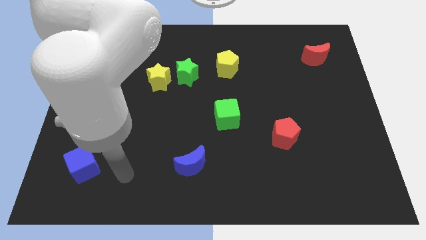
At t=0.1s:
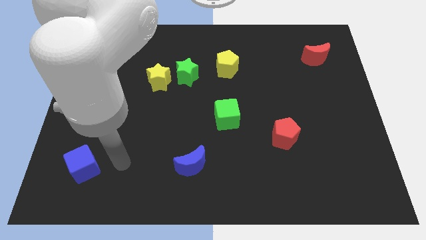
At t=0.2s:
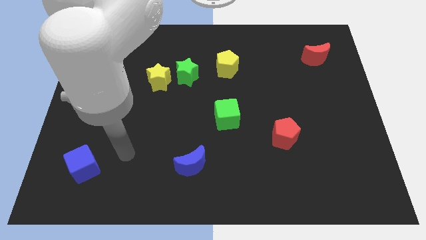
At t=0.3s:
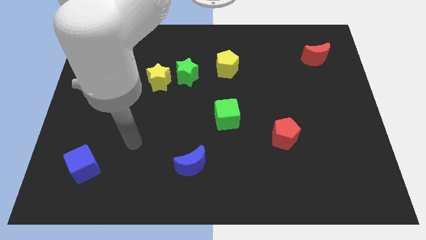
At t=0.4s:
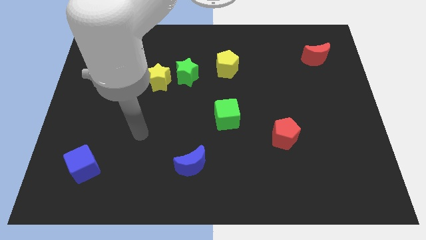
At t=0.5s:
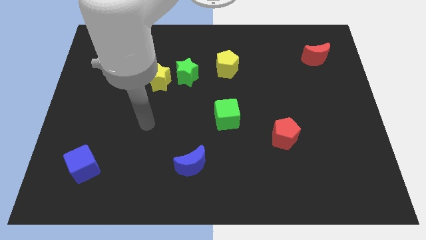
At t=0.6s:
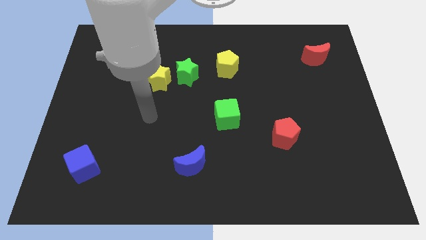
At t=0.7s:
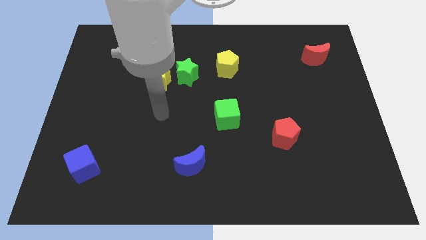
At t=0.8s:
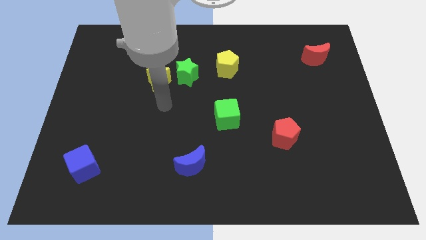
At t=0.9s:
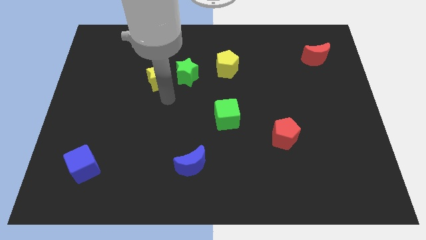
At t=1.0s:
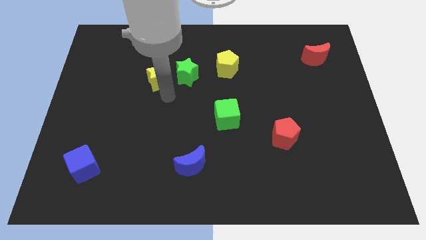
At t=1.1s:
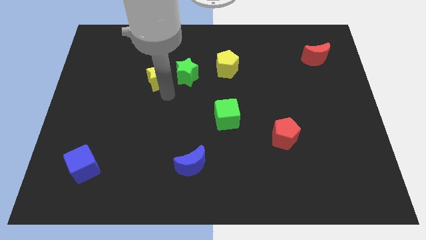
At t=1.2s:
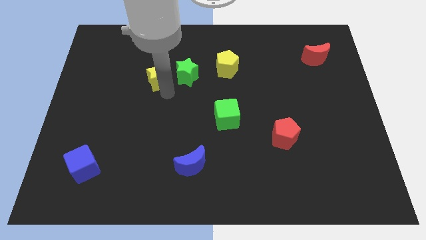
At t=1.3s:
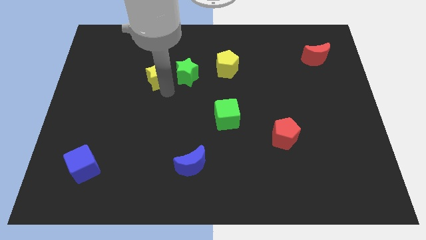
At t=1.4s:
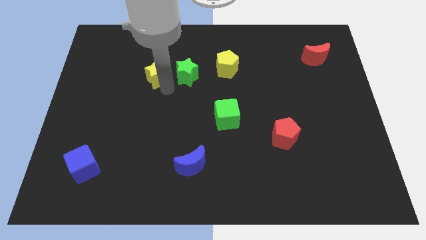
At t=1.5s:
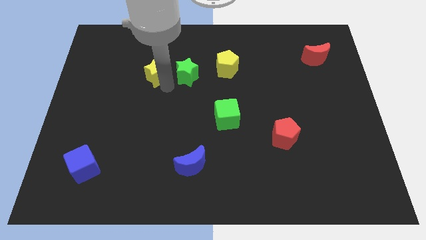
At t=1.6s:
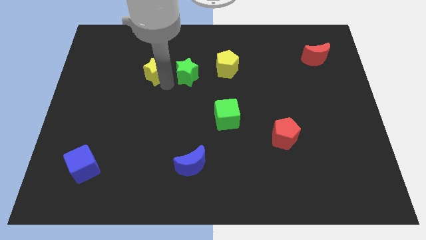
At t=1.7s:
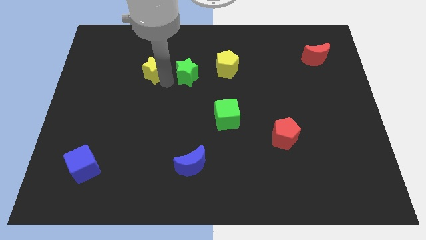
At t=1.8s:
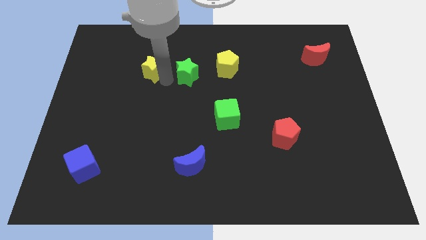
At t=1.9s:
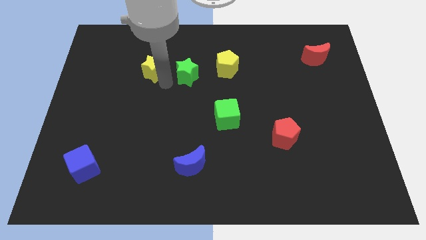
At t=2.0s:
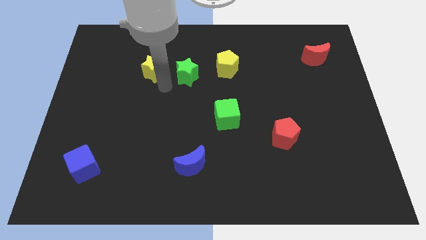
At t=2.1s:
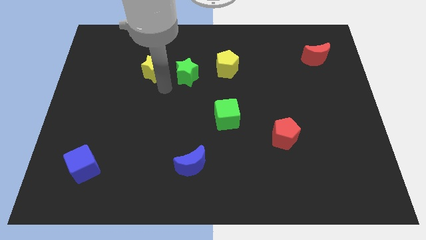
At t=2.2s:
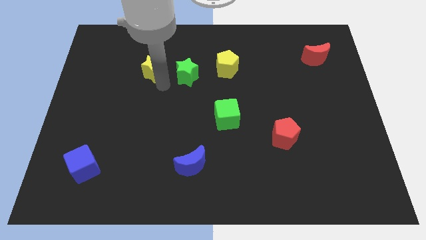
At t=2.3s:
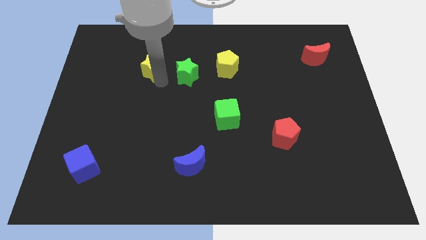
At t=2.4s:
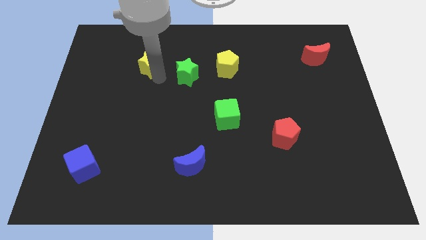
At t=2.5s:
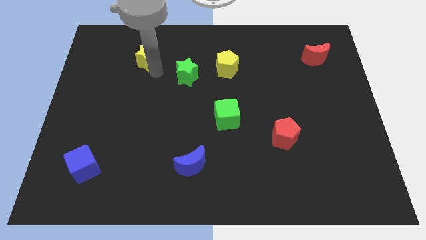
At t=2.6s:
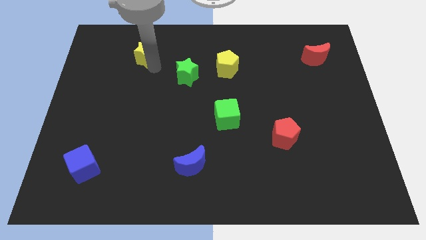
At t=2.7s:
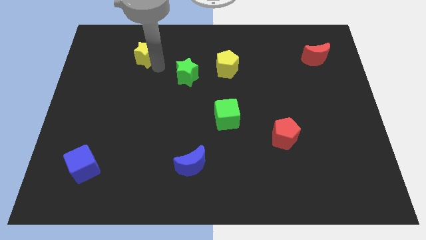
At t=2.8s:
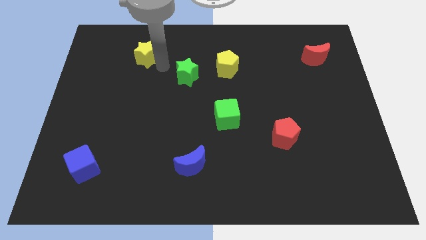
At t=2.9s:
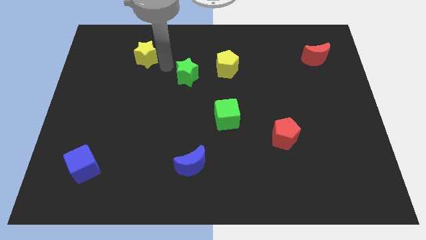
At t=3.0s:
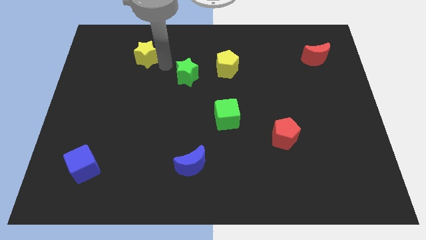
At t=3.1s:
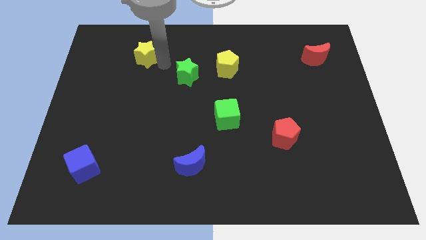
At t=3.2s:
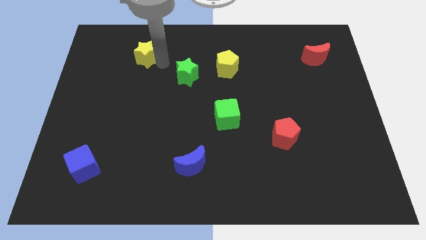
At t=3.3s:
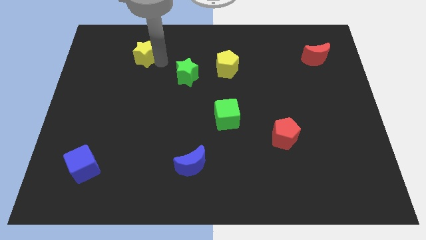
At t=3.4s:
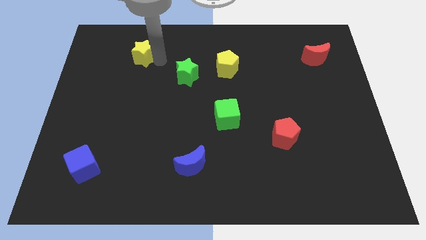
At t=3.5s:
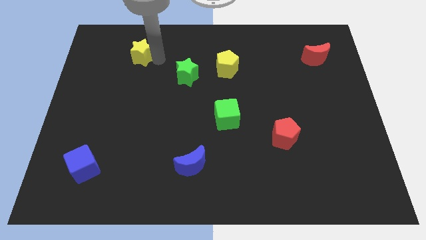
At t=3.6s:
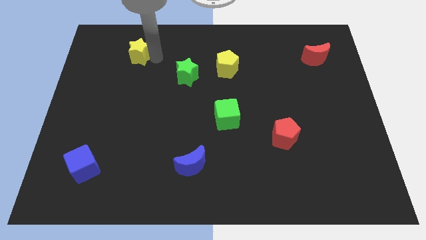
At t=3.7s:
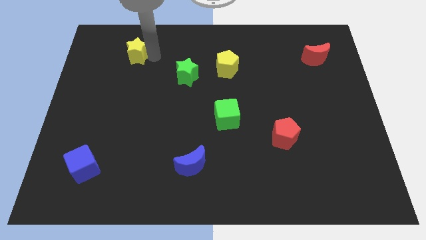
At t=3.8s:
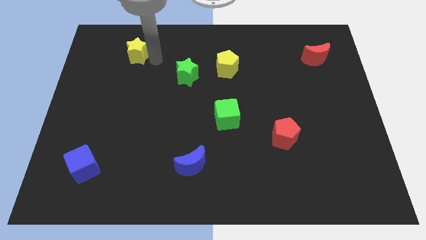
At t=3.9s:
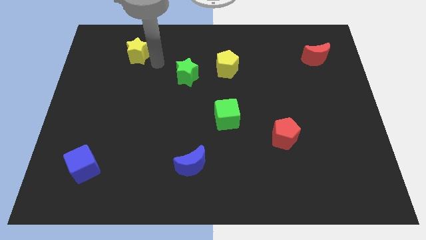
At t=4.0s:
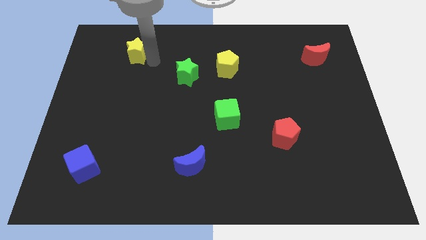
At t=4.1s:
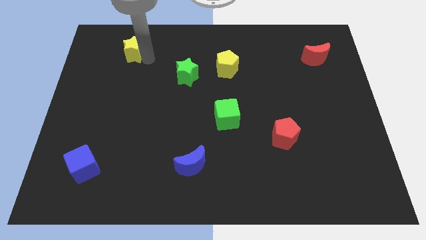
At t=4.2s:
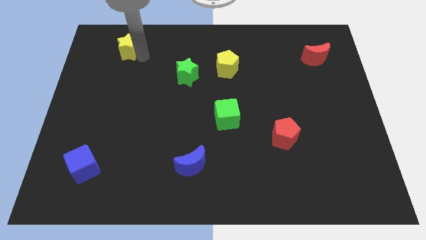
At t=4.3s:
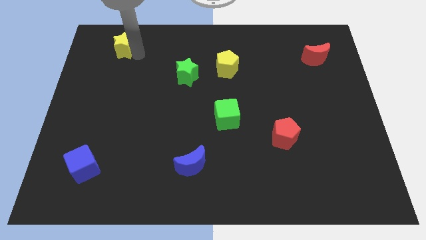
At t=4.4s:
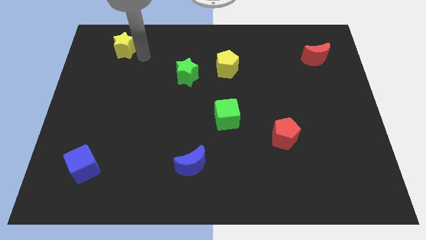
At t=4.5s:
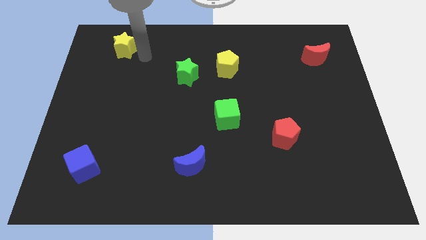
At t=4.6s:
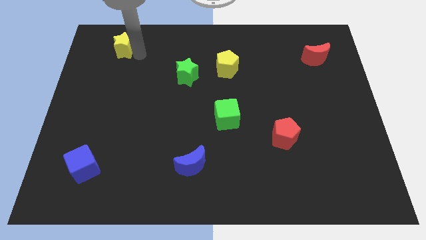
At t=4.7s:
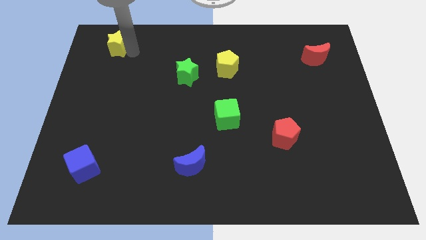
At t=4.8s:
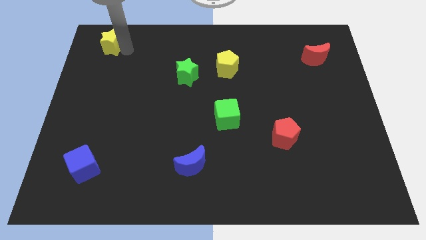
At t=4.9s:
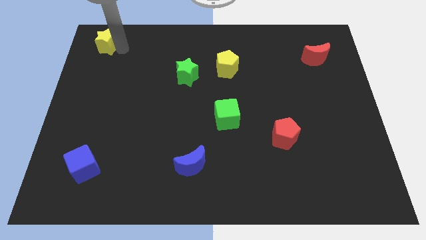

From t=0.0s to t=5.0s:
push the yellow star to the top left

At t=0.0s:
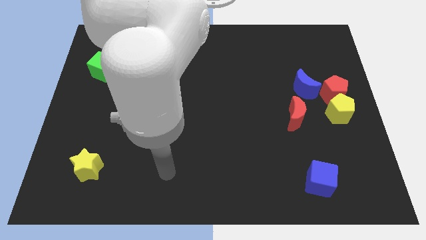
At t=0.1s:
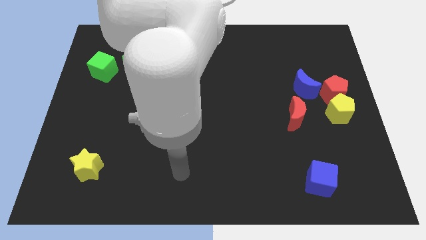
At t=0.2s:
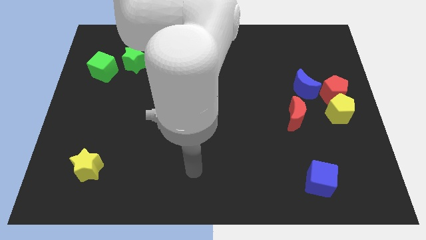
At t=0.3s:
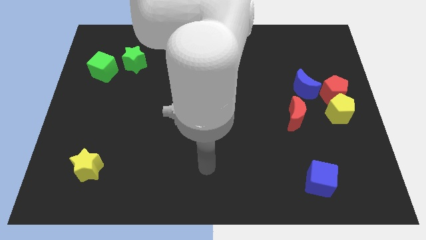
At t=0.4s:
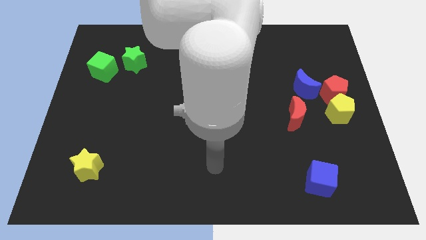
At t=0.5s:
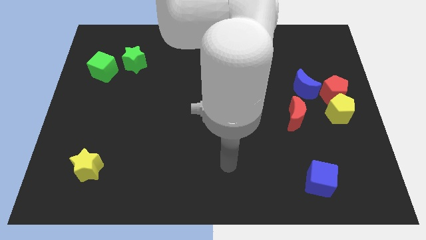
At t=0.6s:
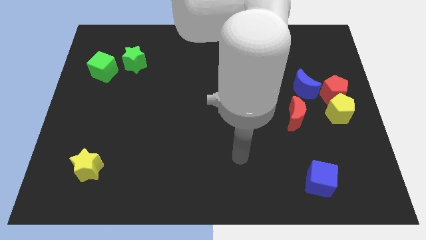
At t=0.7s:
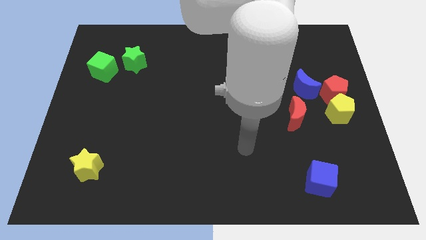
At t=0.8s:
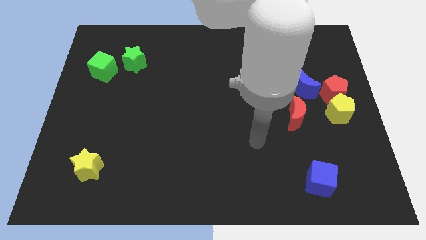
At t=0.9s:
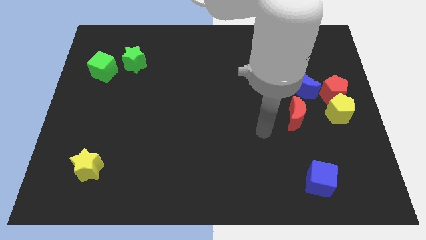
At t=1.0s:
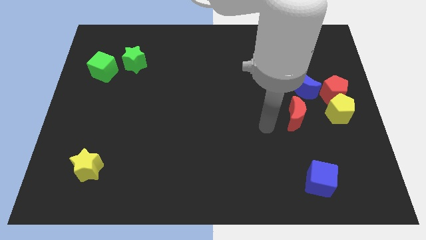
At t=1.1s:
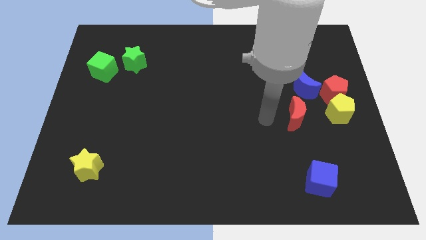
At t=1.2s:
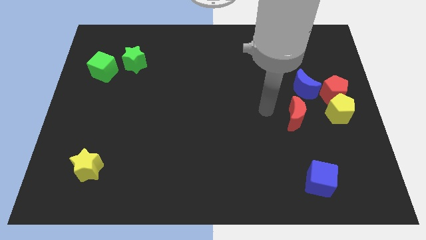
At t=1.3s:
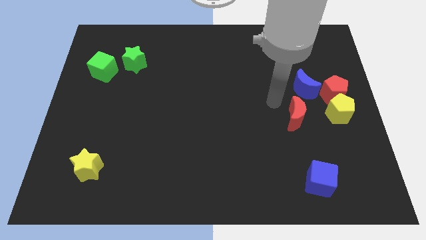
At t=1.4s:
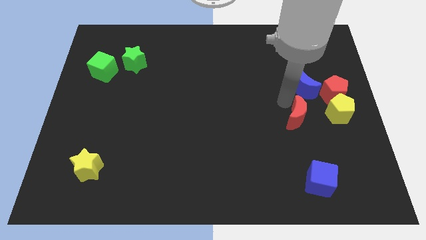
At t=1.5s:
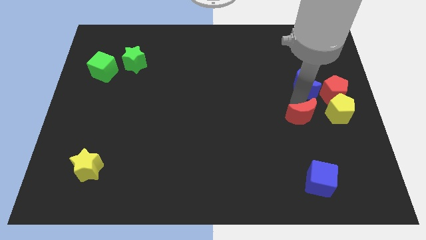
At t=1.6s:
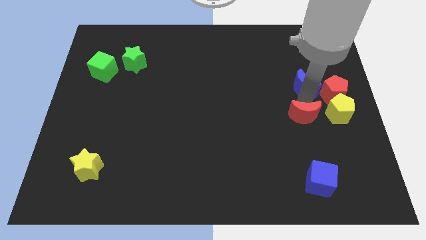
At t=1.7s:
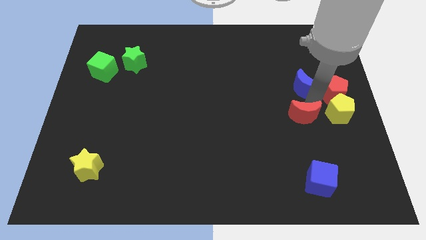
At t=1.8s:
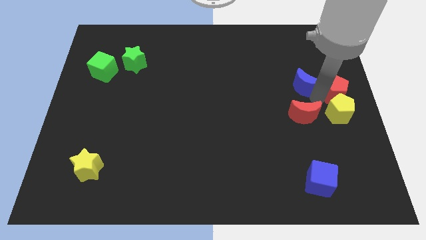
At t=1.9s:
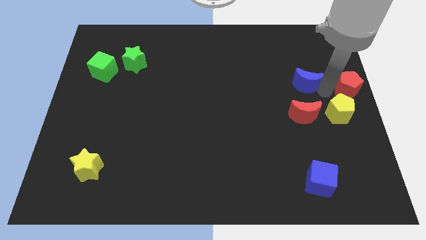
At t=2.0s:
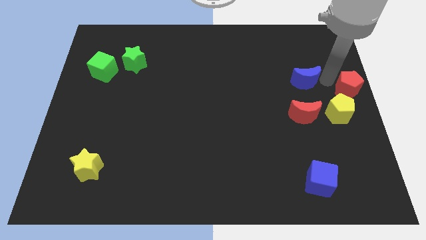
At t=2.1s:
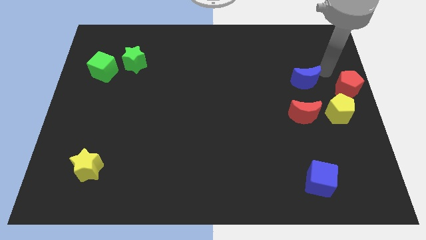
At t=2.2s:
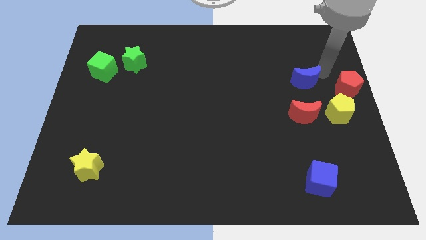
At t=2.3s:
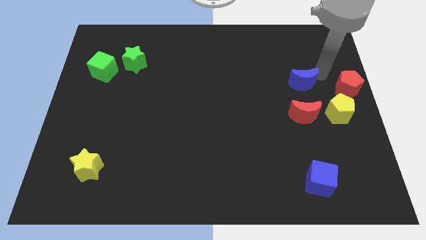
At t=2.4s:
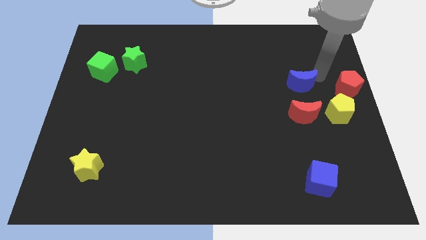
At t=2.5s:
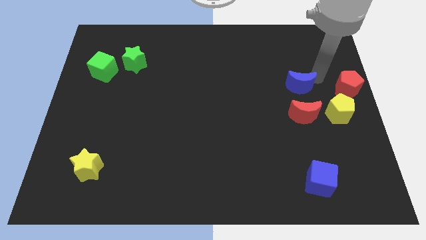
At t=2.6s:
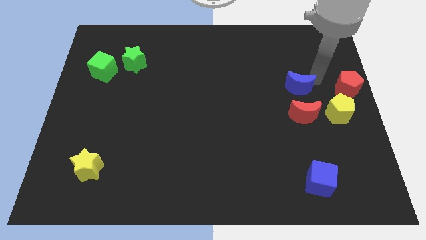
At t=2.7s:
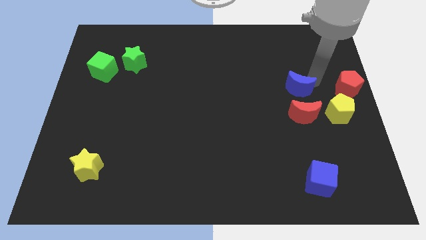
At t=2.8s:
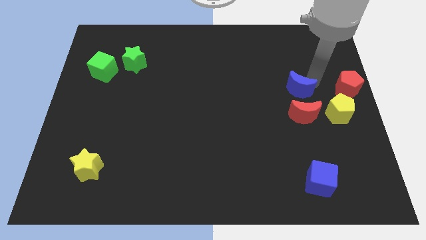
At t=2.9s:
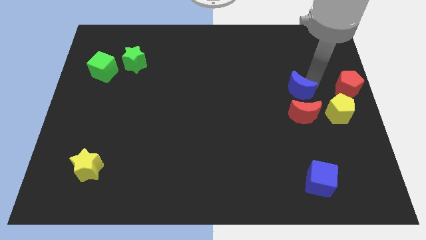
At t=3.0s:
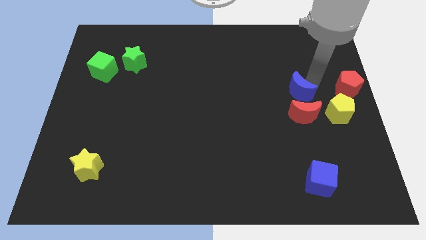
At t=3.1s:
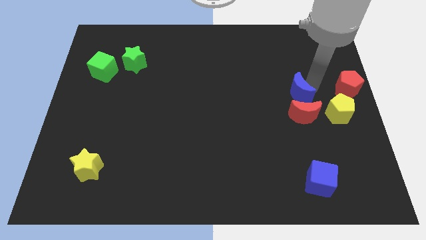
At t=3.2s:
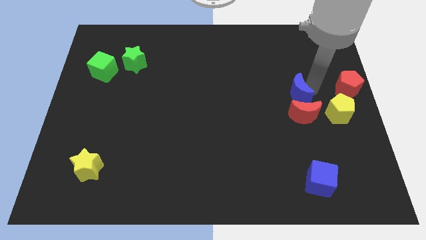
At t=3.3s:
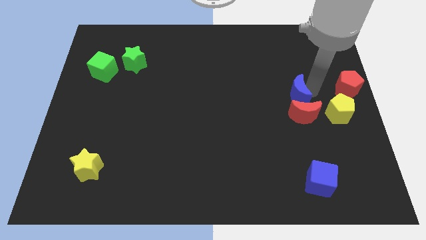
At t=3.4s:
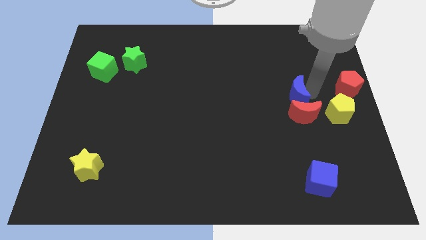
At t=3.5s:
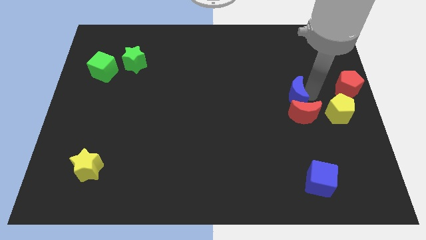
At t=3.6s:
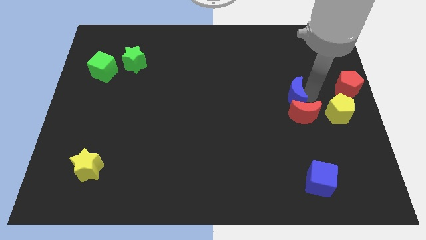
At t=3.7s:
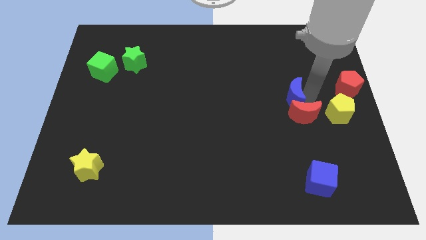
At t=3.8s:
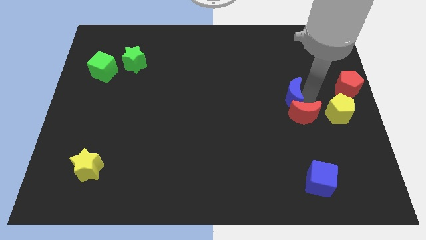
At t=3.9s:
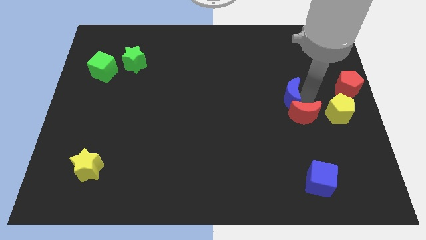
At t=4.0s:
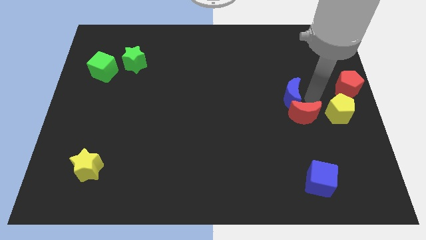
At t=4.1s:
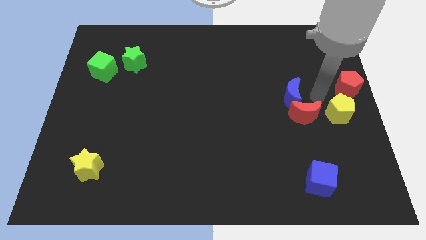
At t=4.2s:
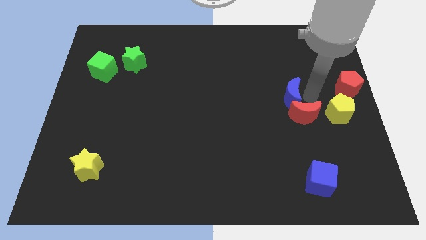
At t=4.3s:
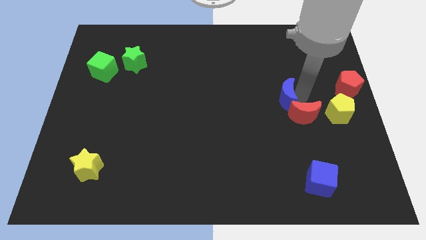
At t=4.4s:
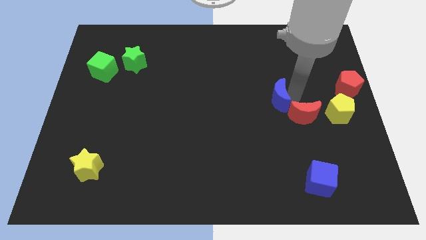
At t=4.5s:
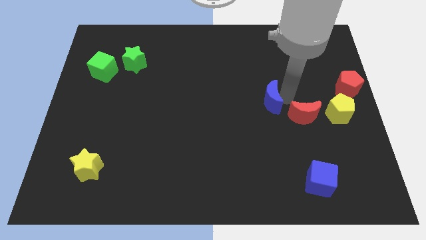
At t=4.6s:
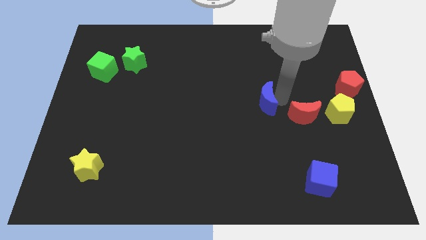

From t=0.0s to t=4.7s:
move the blue moon to the center of the board
